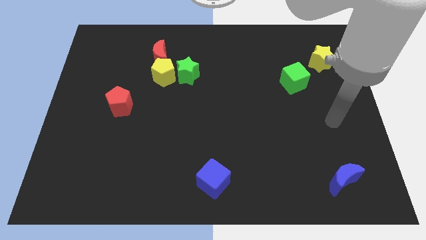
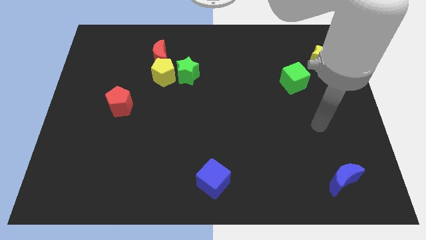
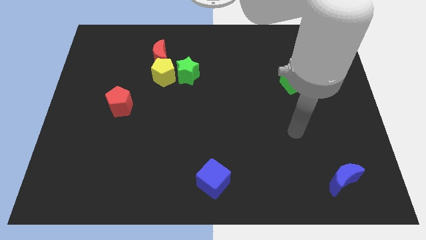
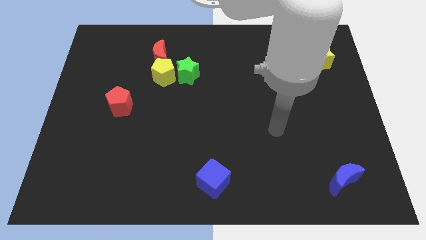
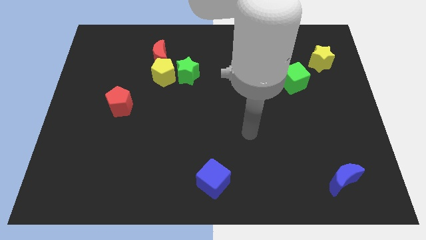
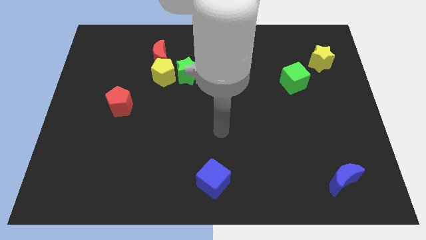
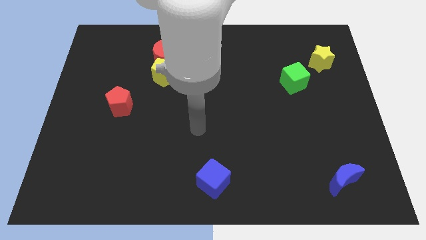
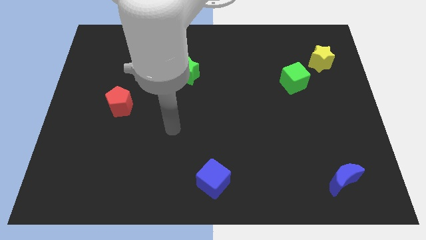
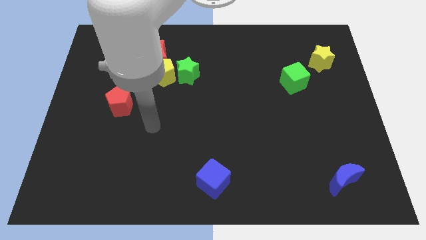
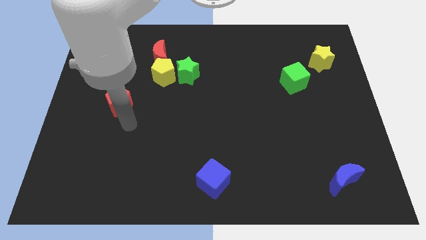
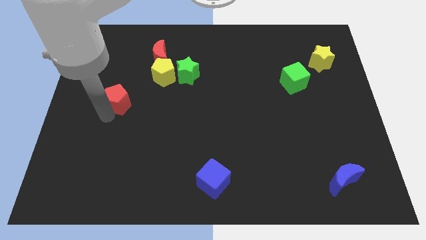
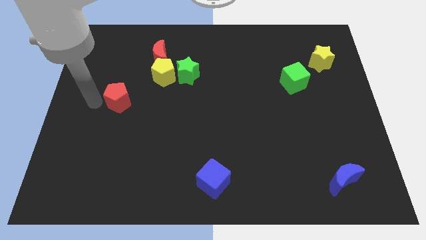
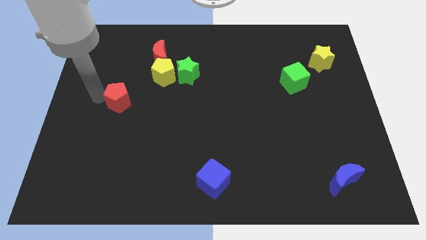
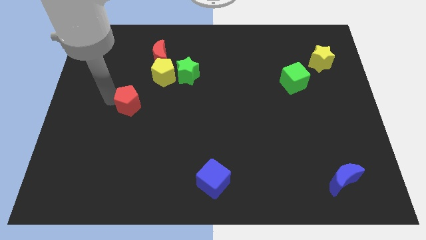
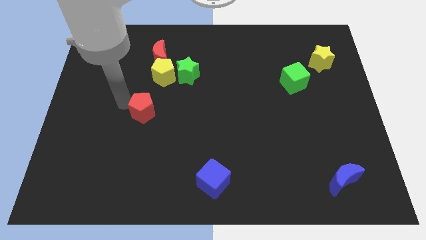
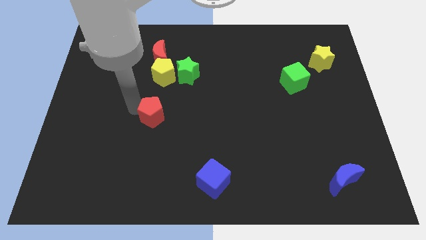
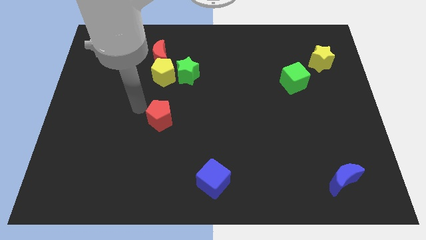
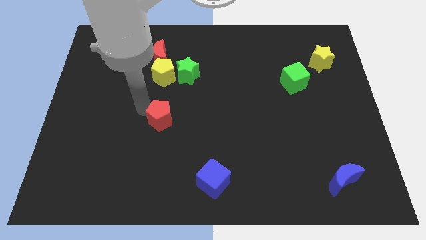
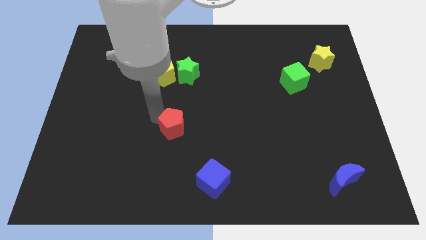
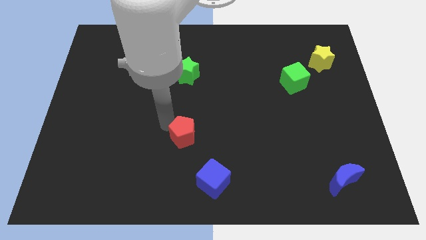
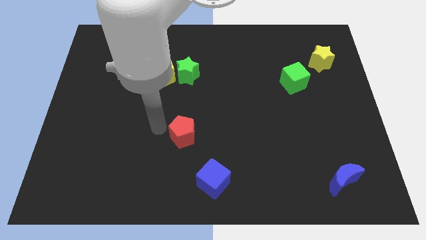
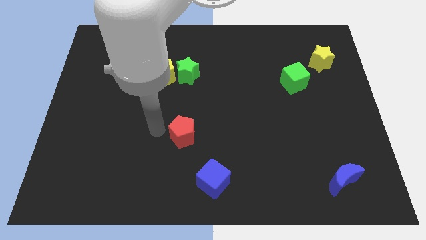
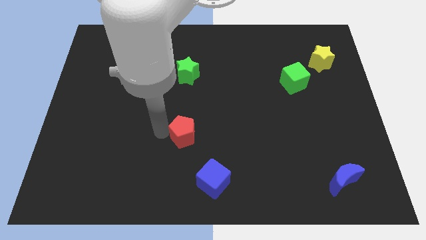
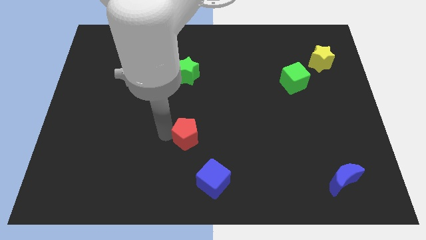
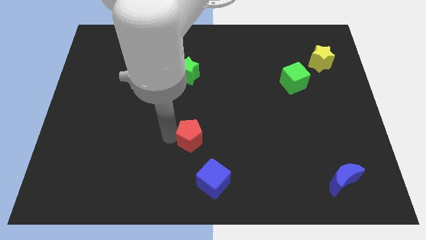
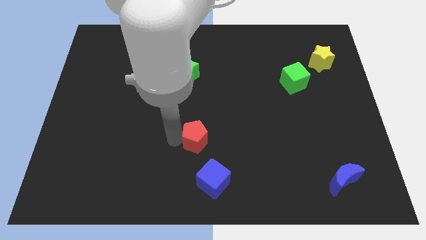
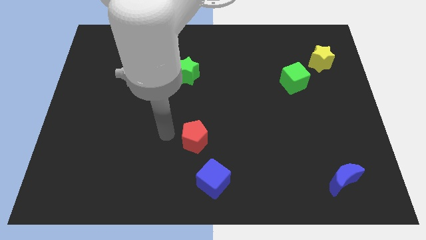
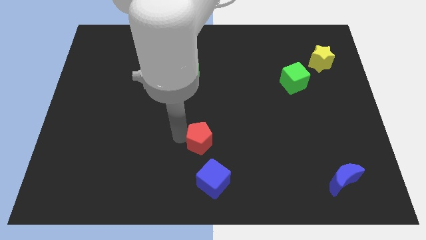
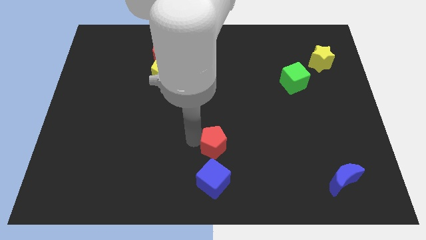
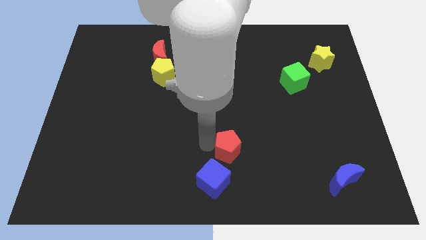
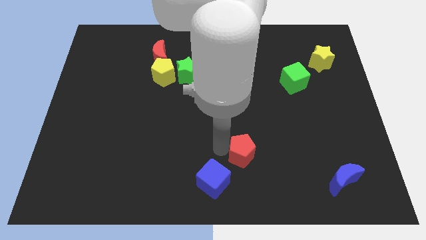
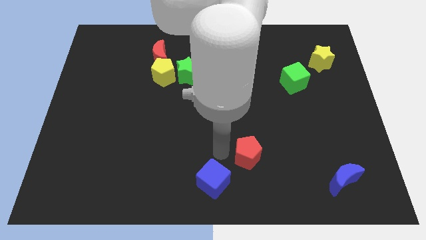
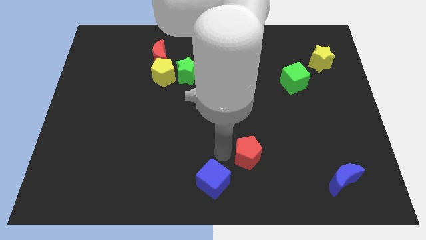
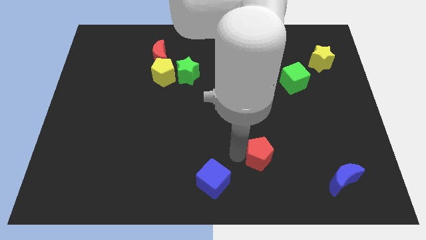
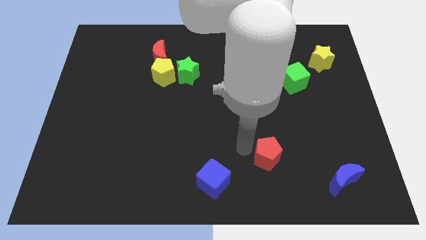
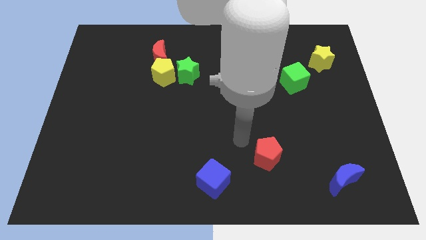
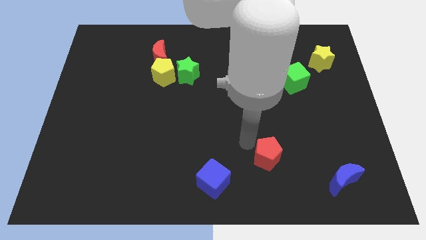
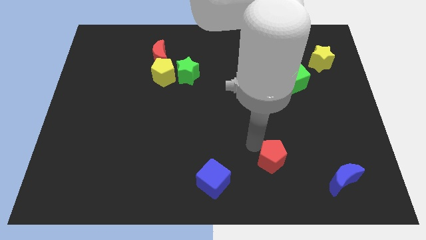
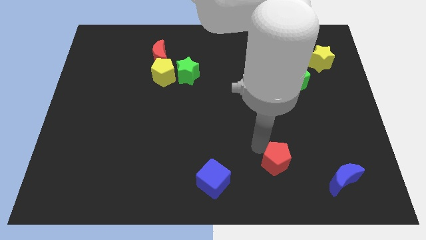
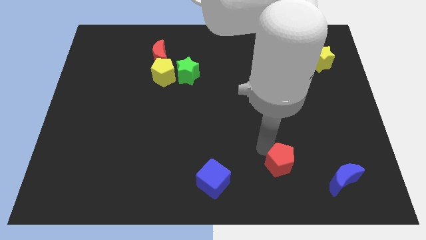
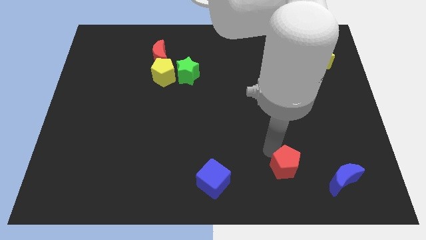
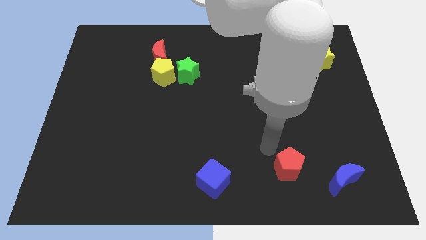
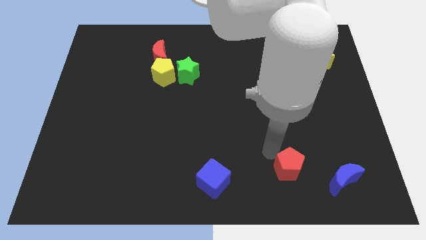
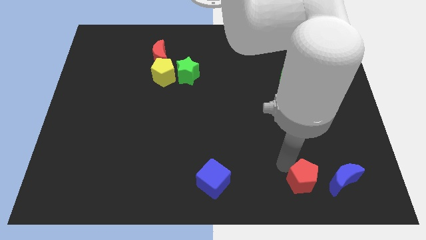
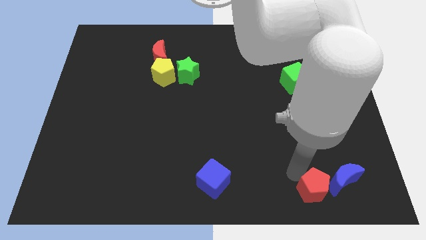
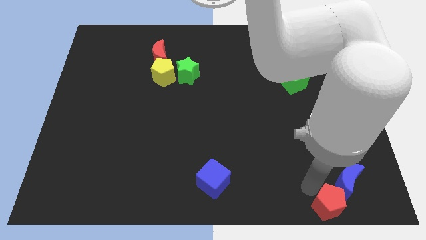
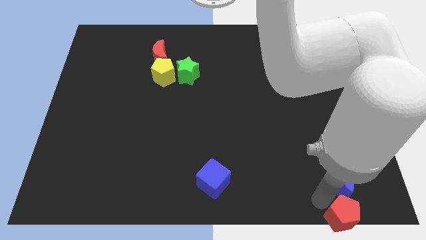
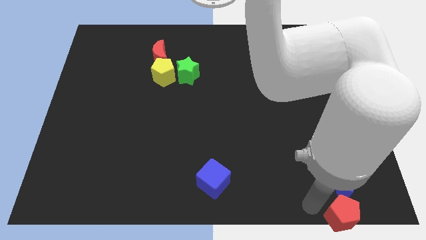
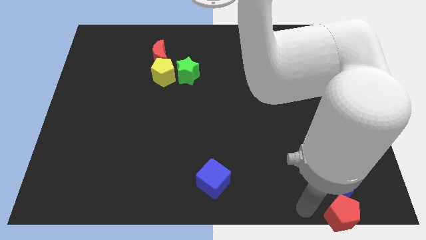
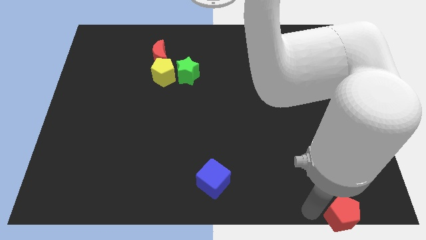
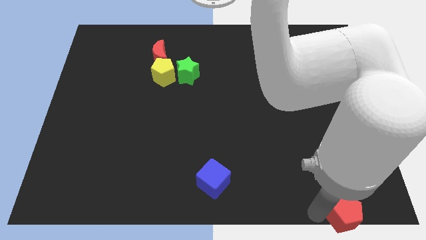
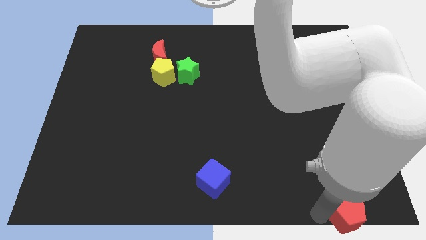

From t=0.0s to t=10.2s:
put the red pentagon to the bottom right of the board
